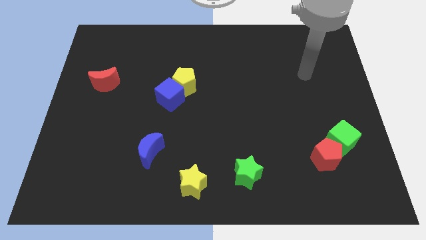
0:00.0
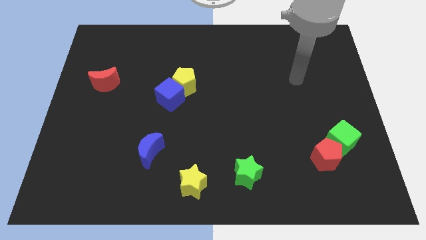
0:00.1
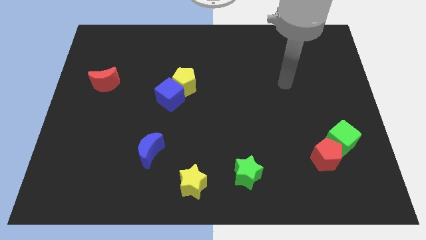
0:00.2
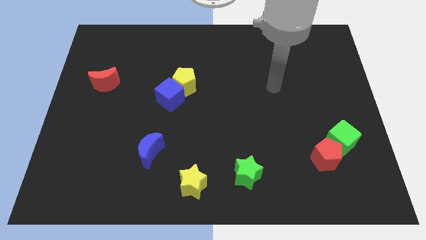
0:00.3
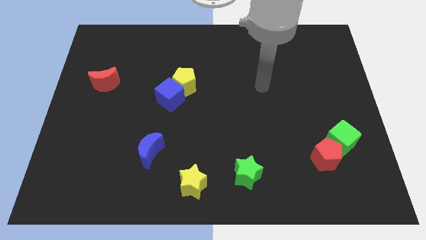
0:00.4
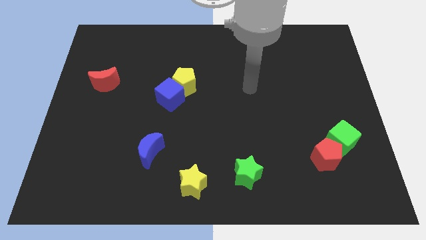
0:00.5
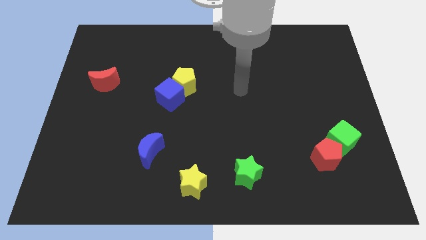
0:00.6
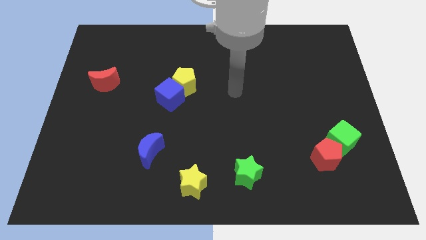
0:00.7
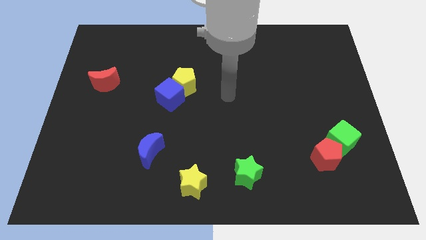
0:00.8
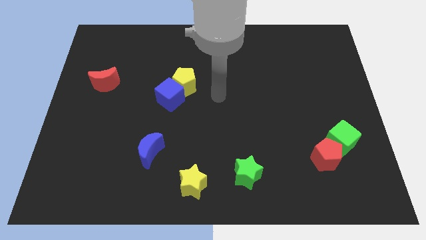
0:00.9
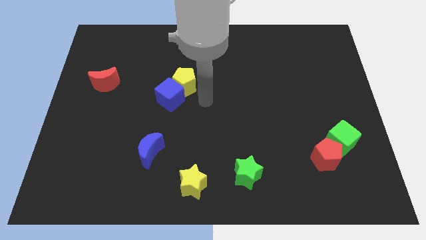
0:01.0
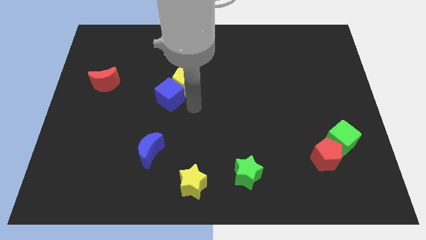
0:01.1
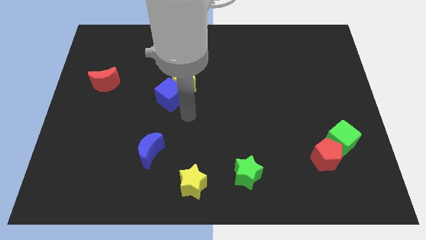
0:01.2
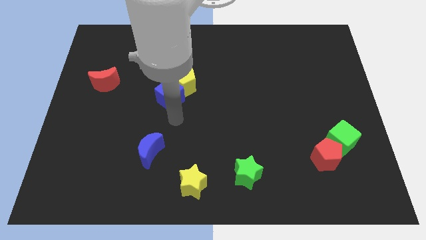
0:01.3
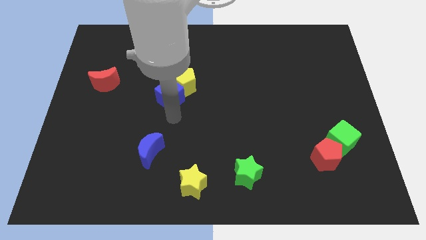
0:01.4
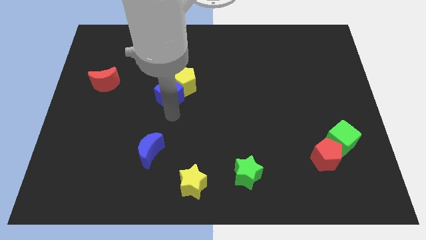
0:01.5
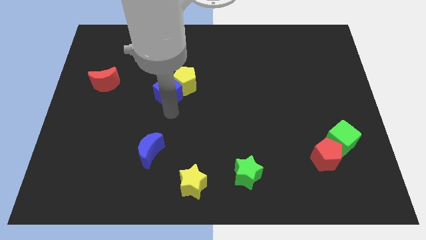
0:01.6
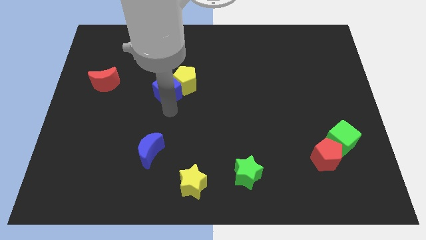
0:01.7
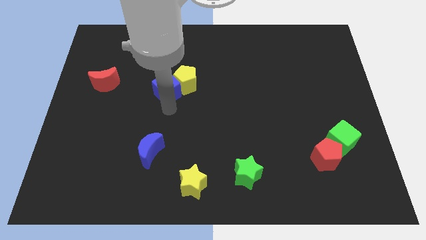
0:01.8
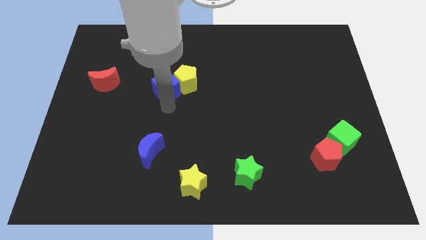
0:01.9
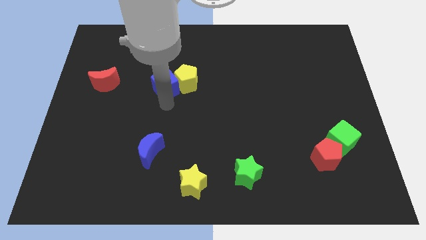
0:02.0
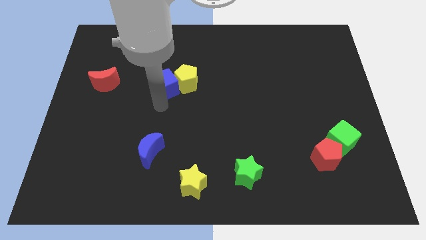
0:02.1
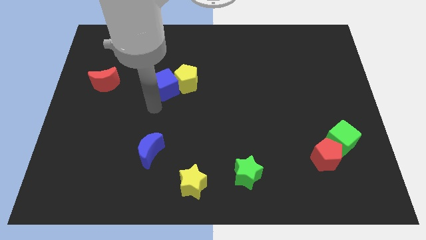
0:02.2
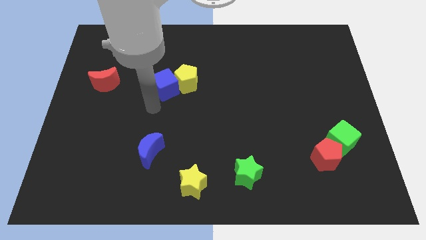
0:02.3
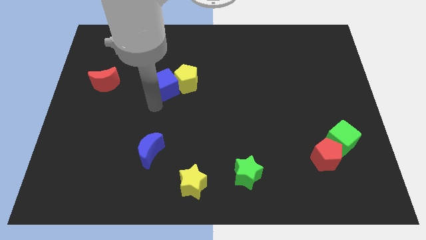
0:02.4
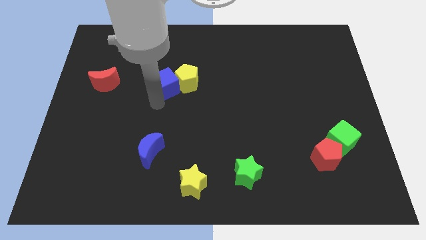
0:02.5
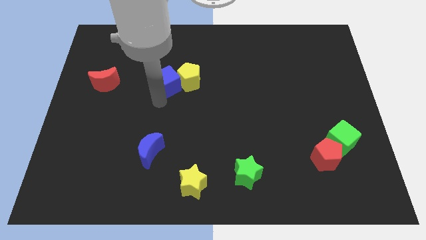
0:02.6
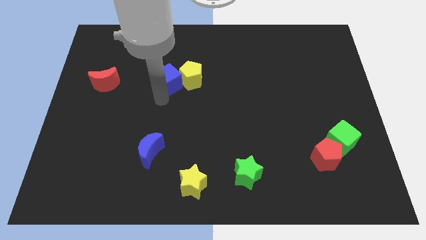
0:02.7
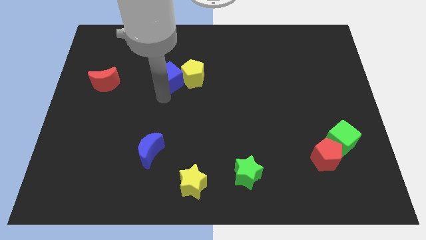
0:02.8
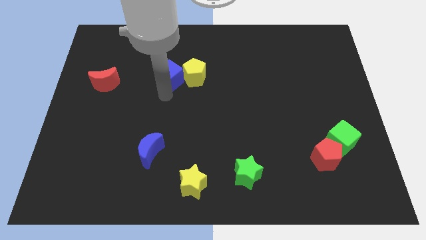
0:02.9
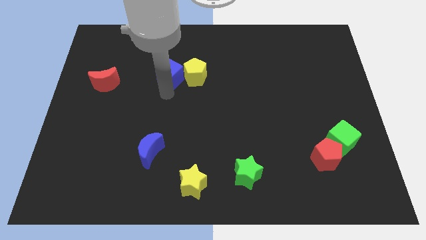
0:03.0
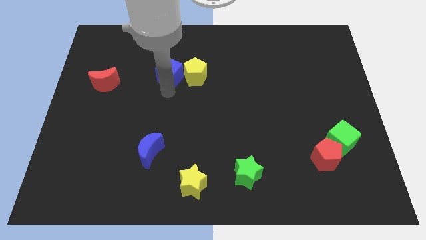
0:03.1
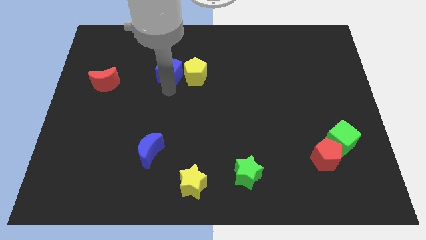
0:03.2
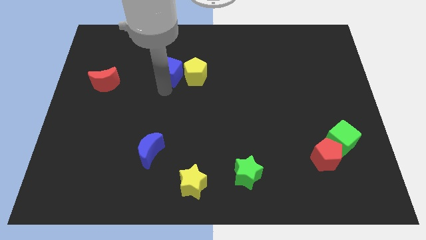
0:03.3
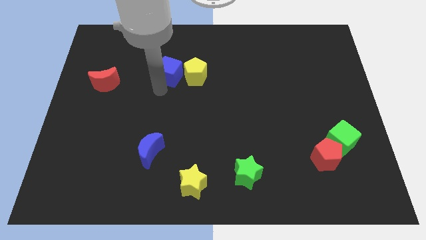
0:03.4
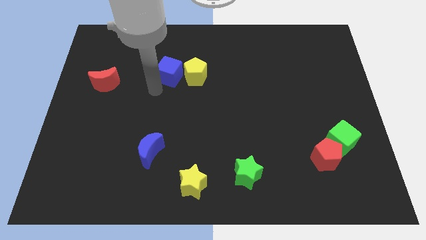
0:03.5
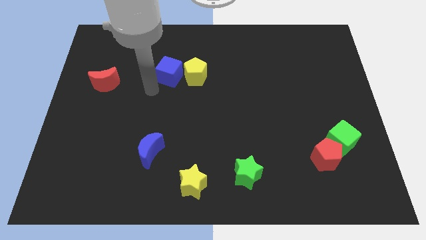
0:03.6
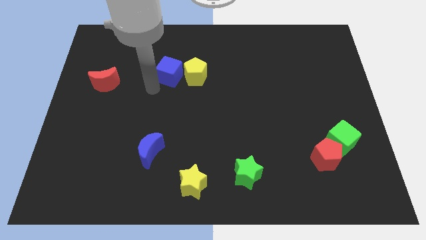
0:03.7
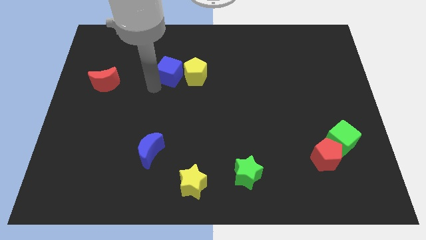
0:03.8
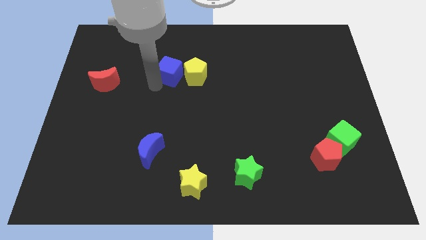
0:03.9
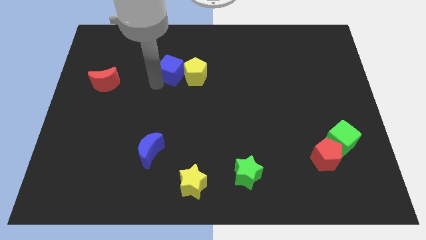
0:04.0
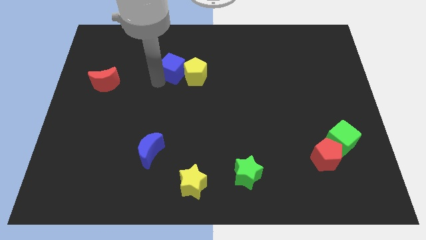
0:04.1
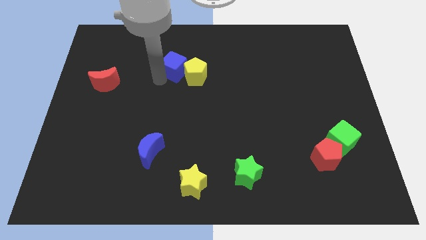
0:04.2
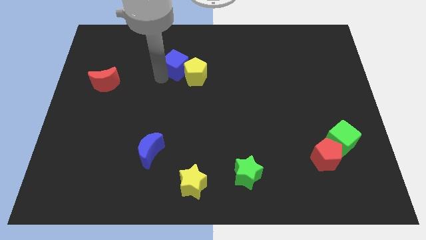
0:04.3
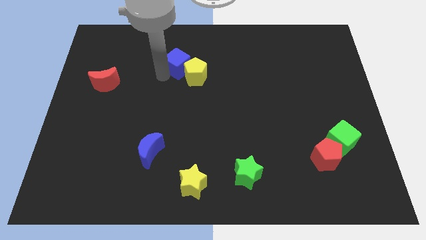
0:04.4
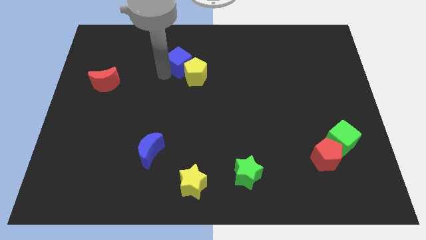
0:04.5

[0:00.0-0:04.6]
move the blue cube up and then right a little bit

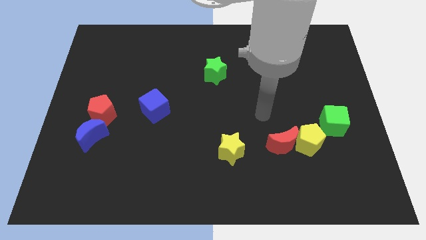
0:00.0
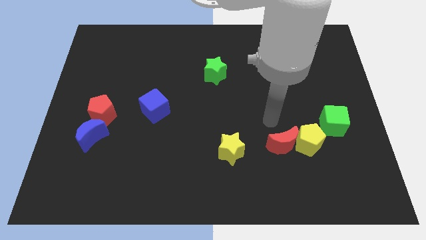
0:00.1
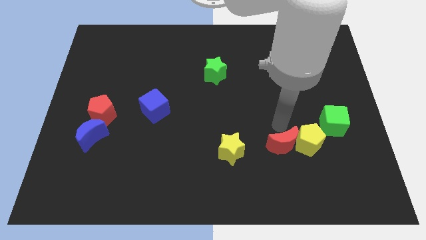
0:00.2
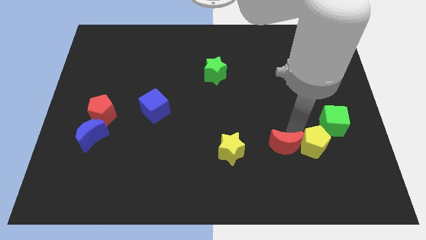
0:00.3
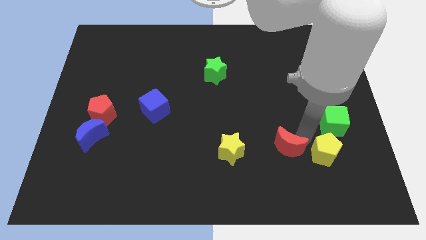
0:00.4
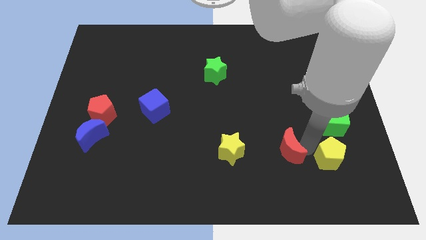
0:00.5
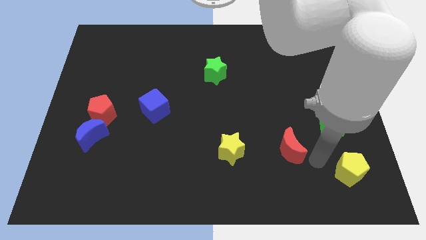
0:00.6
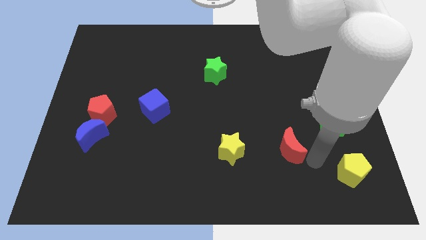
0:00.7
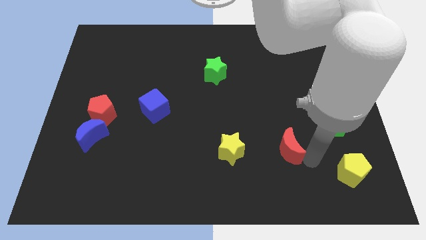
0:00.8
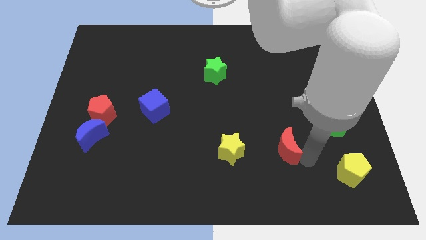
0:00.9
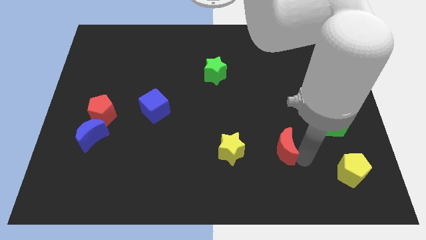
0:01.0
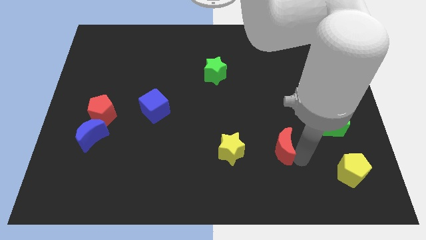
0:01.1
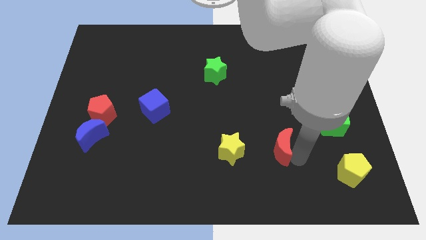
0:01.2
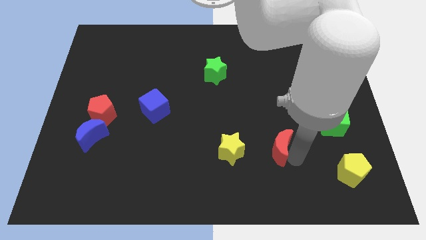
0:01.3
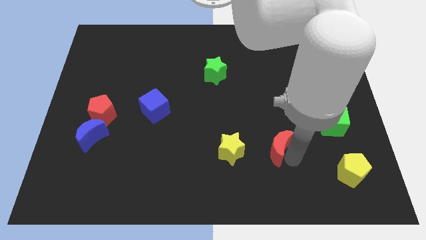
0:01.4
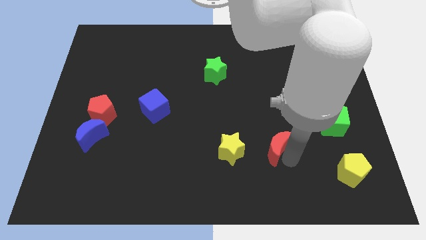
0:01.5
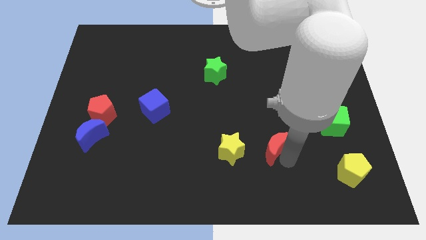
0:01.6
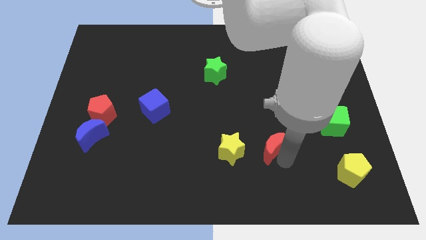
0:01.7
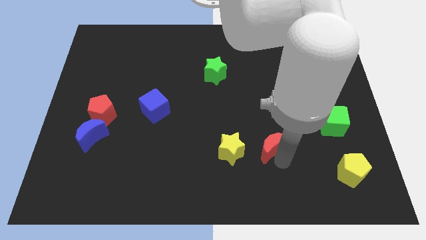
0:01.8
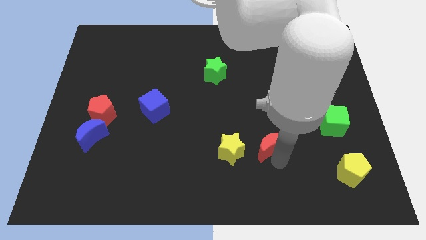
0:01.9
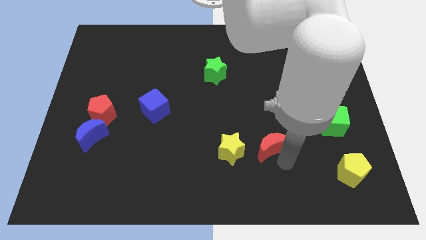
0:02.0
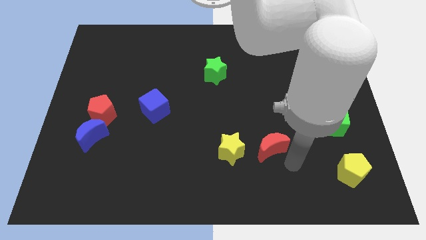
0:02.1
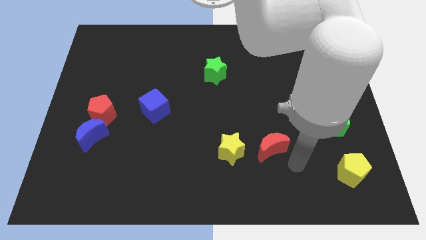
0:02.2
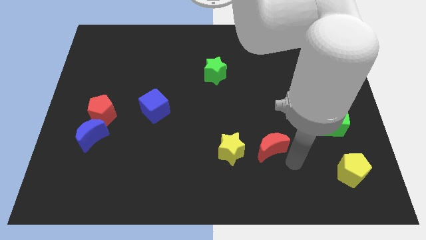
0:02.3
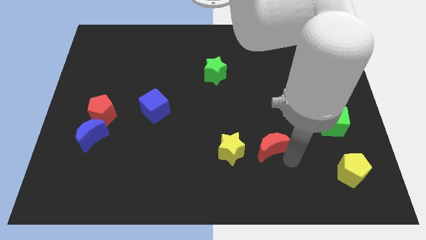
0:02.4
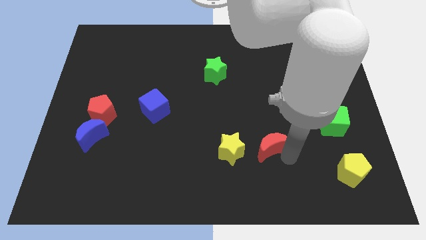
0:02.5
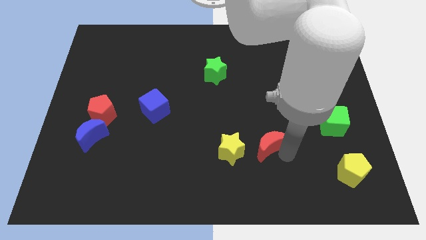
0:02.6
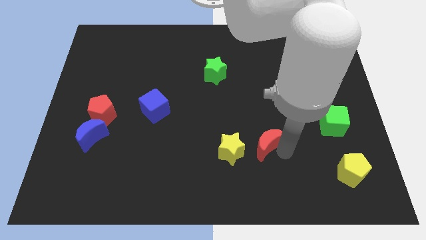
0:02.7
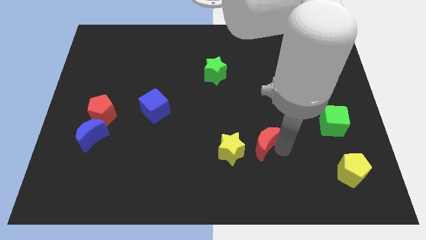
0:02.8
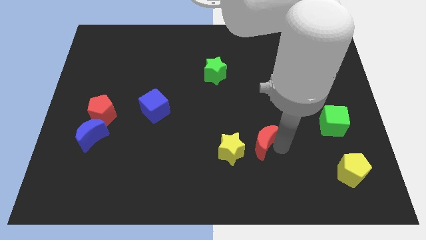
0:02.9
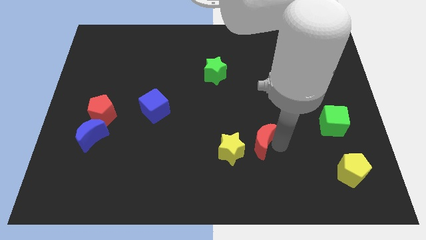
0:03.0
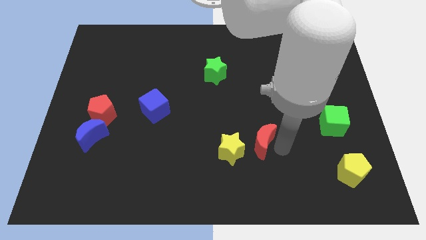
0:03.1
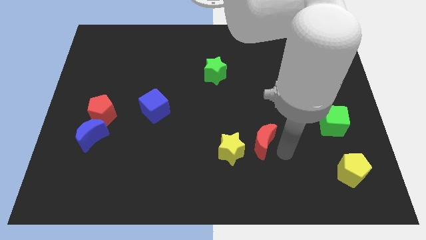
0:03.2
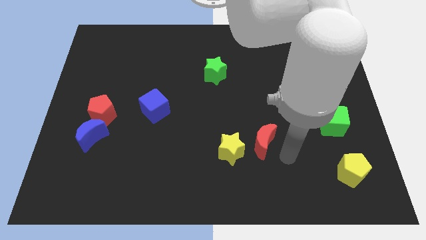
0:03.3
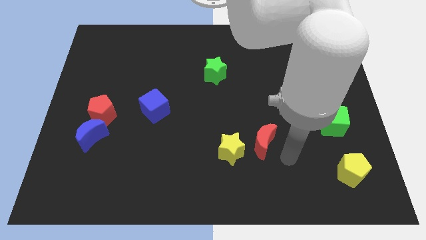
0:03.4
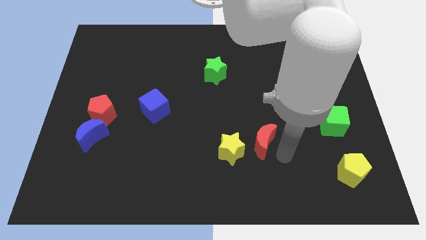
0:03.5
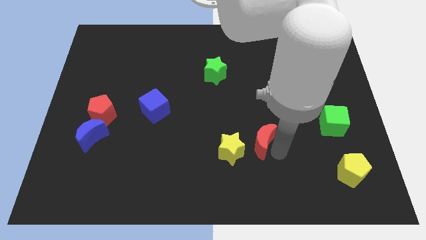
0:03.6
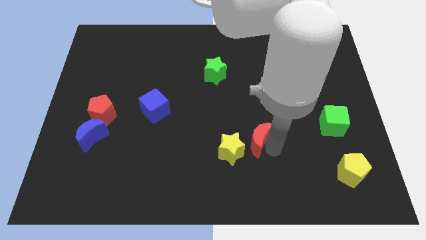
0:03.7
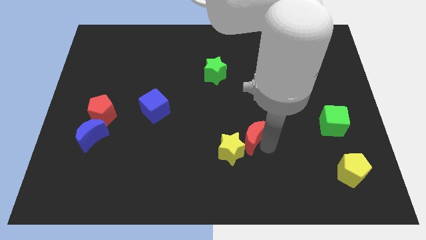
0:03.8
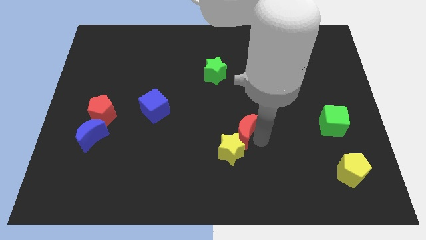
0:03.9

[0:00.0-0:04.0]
move the red moon left a bit
